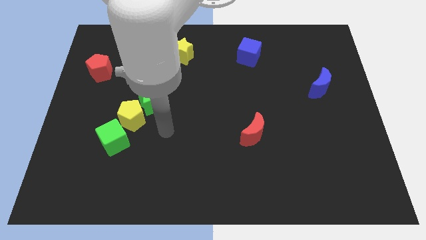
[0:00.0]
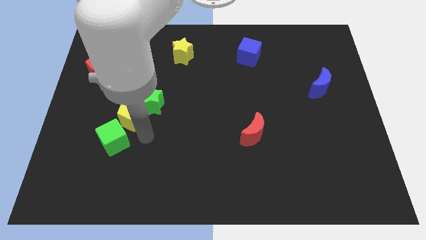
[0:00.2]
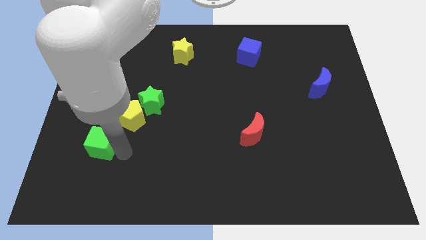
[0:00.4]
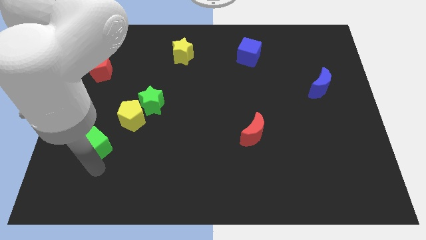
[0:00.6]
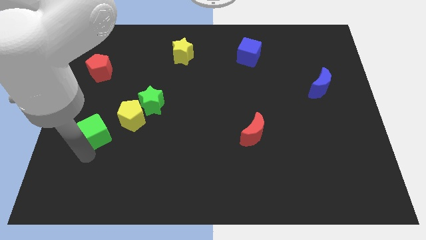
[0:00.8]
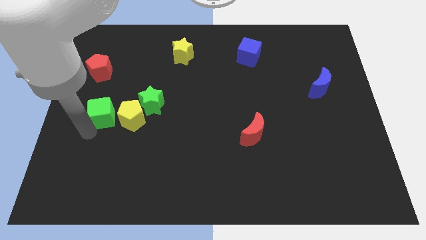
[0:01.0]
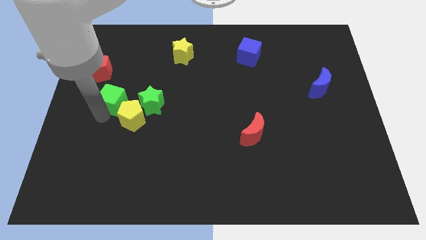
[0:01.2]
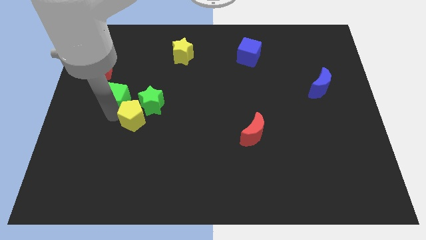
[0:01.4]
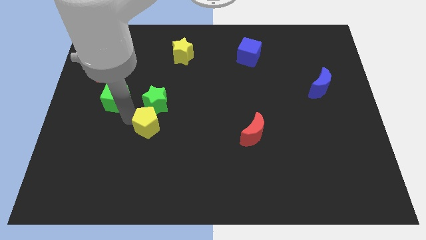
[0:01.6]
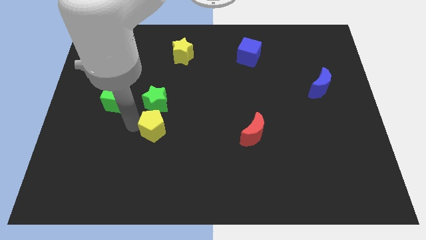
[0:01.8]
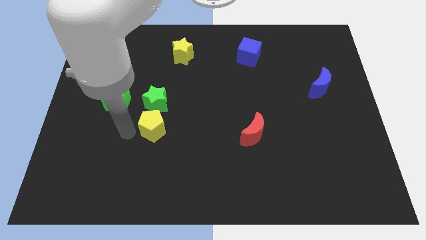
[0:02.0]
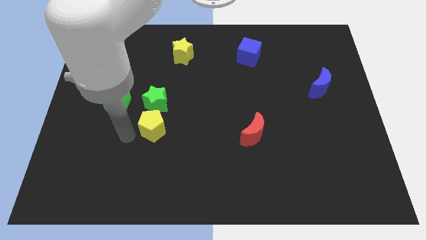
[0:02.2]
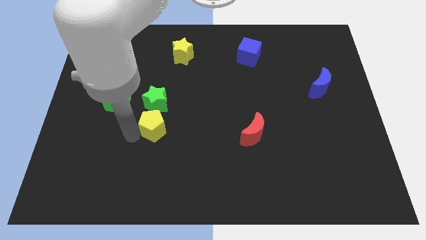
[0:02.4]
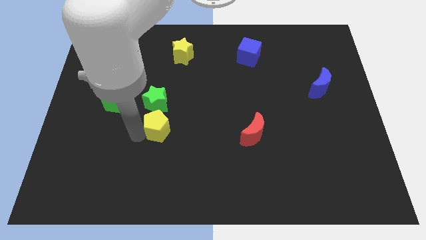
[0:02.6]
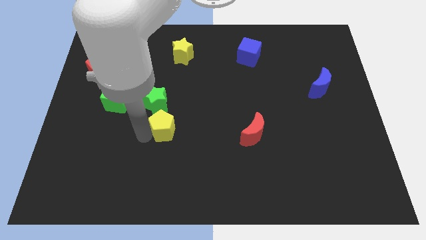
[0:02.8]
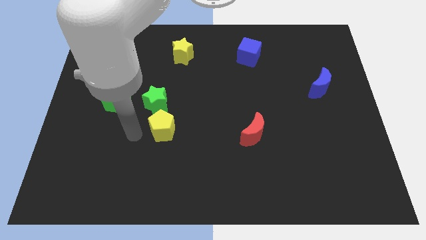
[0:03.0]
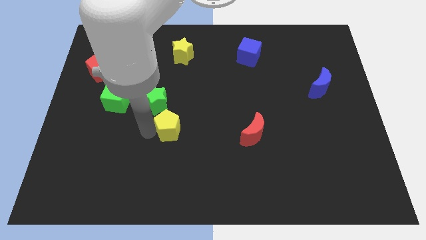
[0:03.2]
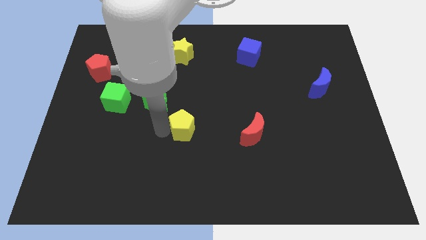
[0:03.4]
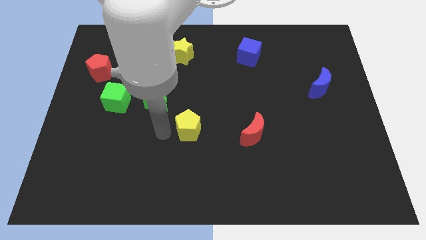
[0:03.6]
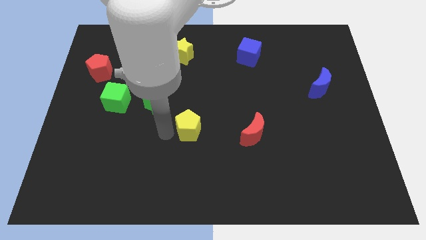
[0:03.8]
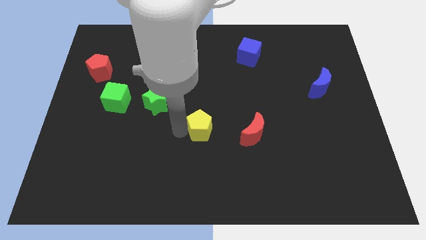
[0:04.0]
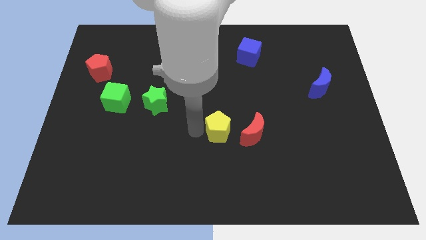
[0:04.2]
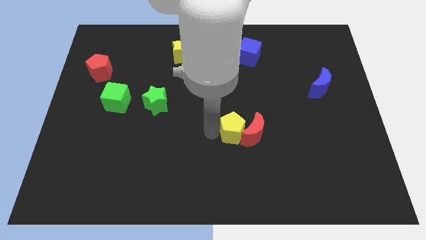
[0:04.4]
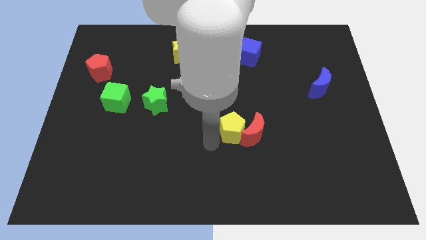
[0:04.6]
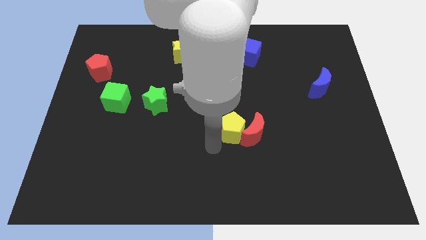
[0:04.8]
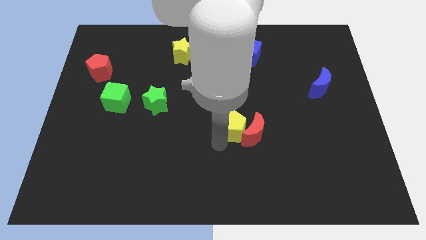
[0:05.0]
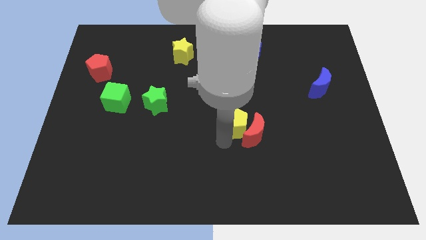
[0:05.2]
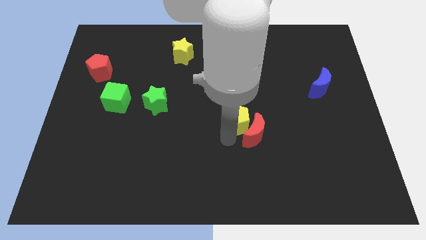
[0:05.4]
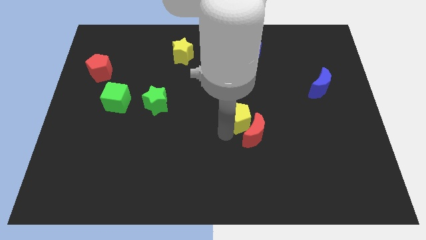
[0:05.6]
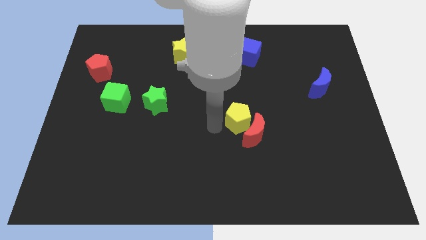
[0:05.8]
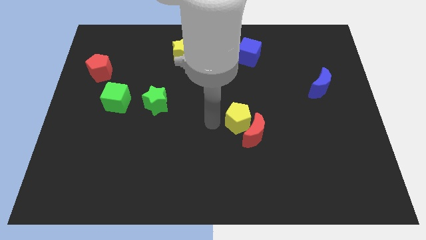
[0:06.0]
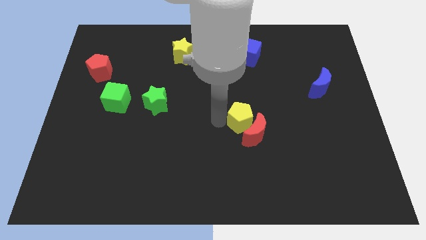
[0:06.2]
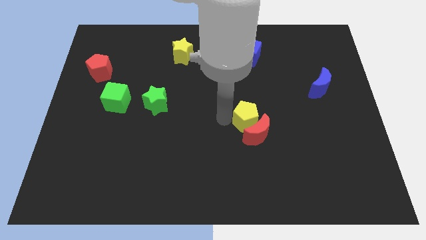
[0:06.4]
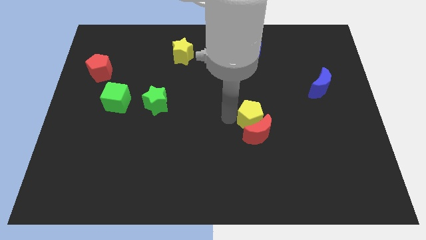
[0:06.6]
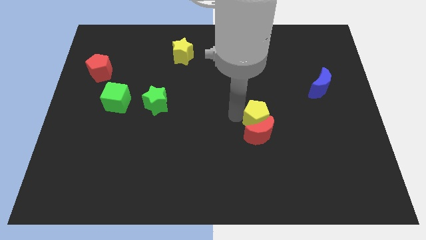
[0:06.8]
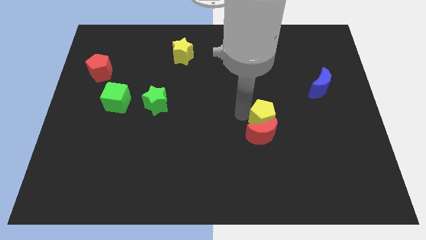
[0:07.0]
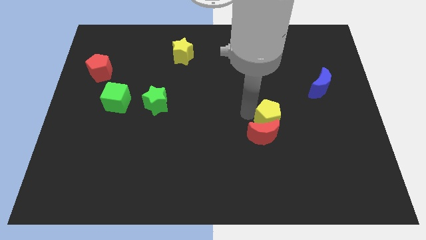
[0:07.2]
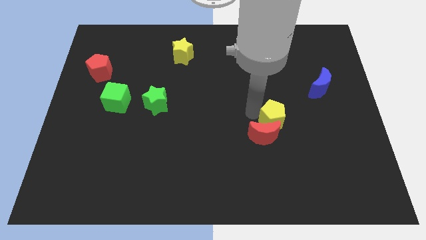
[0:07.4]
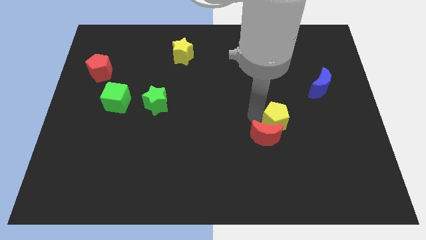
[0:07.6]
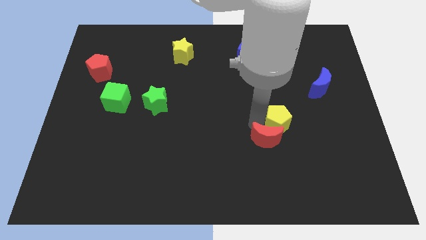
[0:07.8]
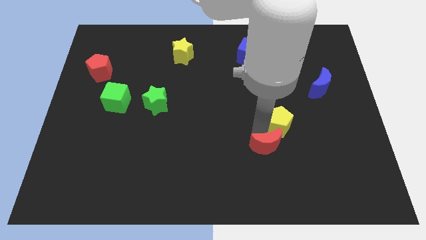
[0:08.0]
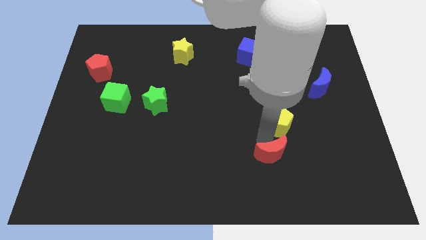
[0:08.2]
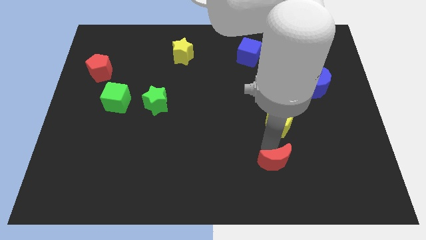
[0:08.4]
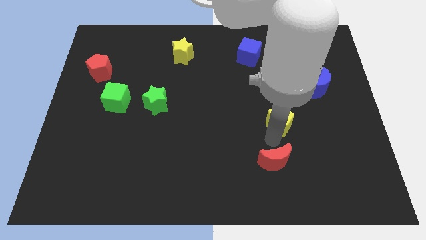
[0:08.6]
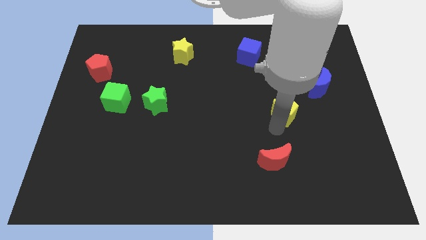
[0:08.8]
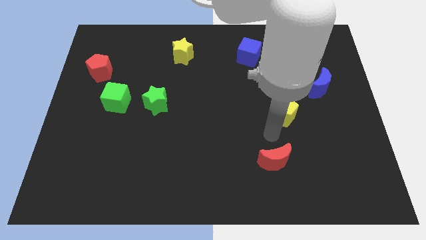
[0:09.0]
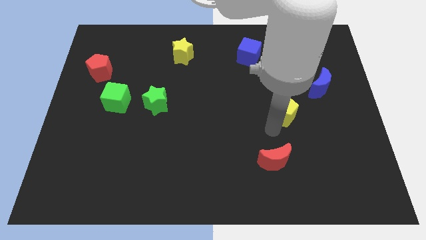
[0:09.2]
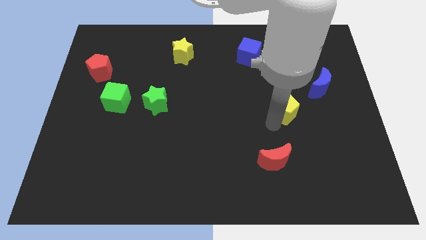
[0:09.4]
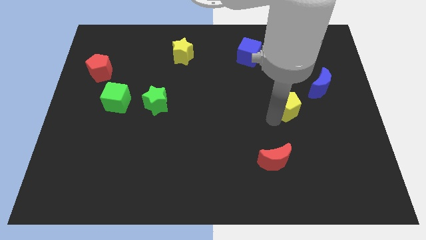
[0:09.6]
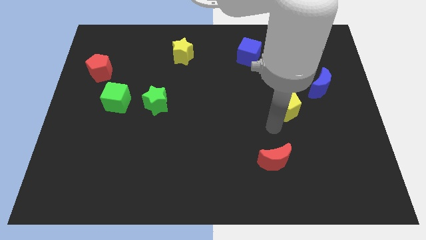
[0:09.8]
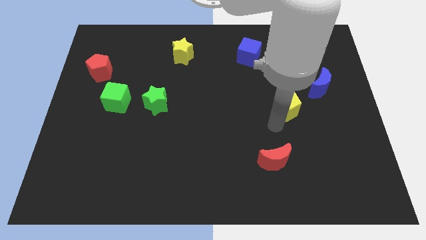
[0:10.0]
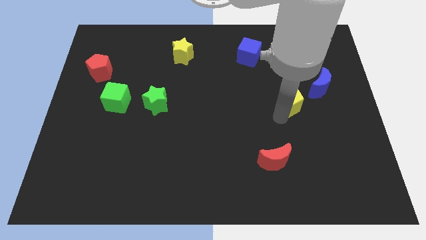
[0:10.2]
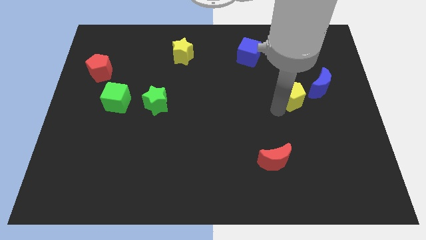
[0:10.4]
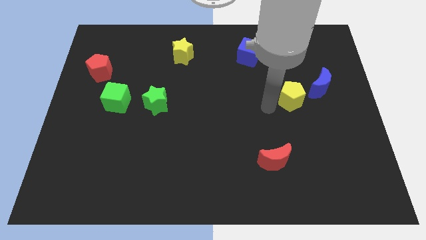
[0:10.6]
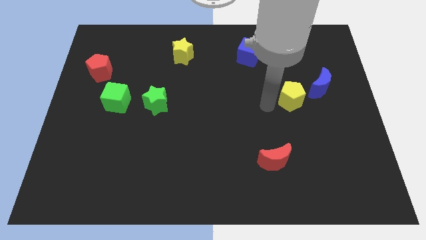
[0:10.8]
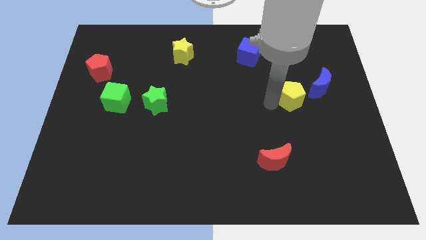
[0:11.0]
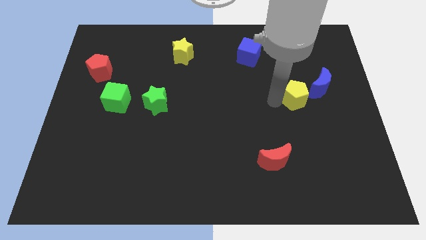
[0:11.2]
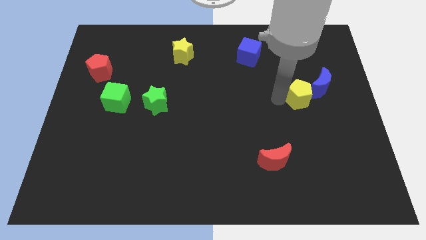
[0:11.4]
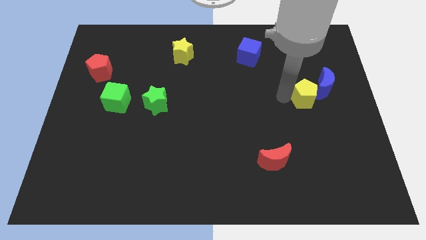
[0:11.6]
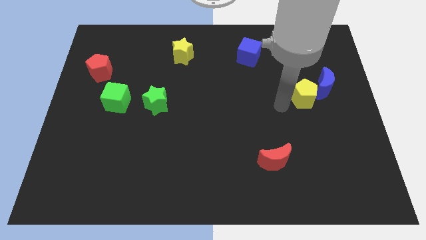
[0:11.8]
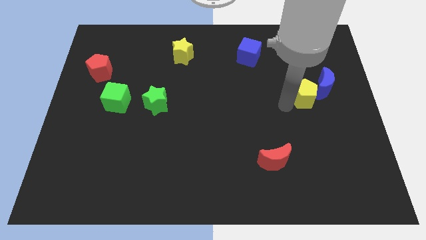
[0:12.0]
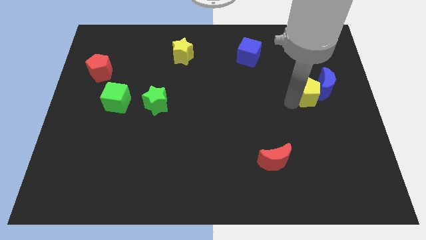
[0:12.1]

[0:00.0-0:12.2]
slide the yellow pentagon close to the blue moon
